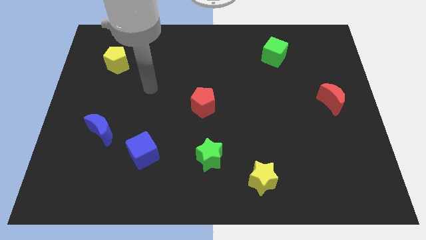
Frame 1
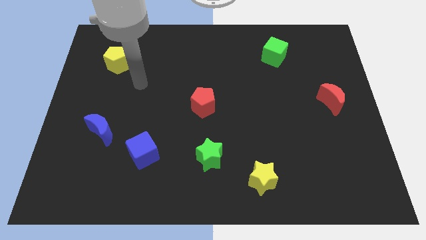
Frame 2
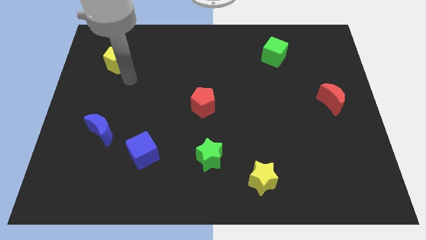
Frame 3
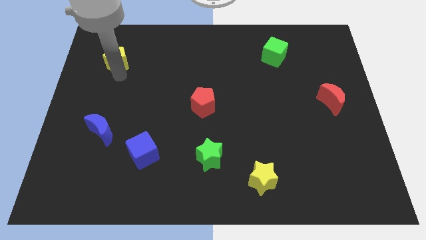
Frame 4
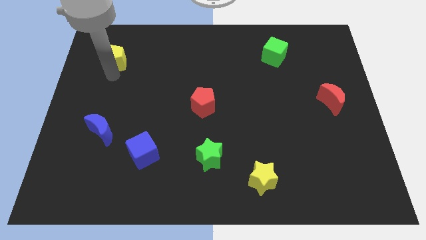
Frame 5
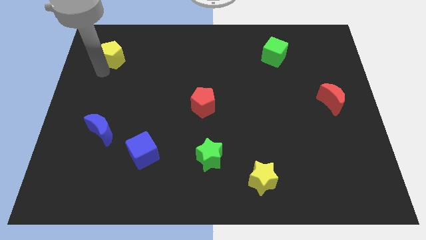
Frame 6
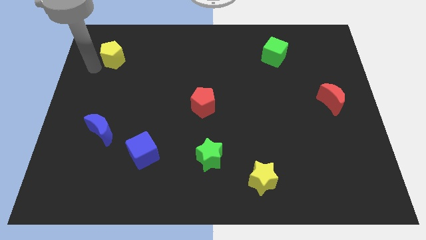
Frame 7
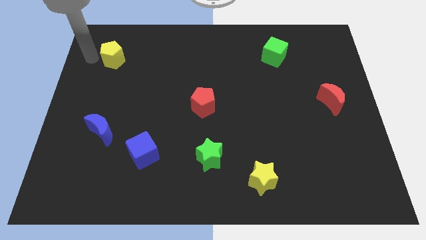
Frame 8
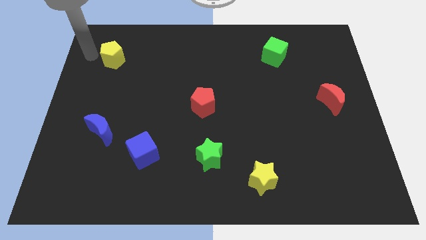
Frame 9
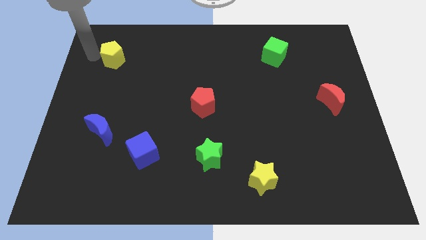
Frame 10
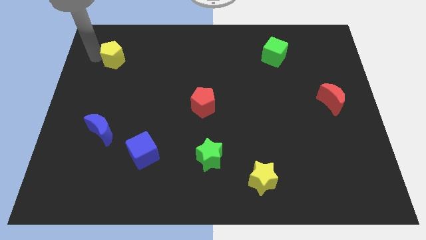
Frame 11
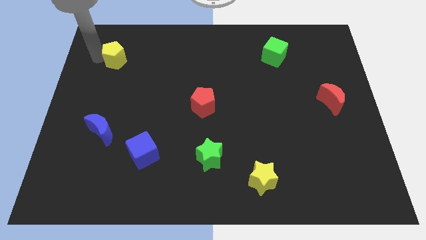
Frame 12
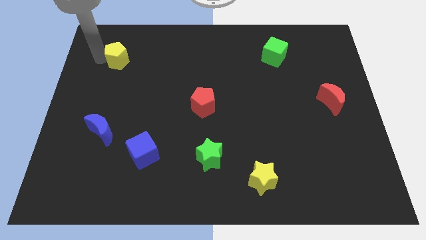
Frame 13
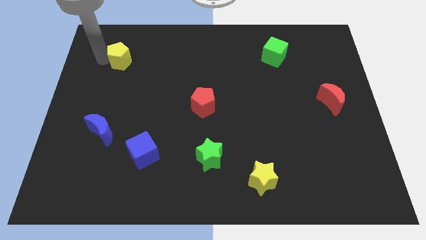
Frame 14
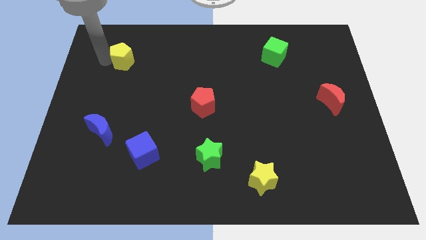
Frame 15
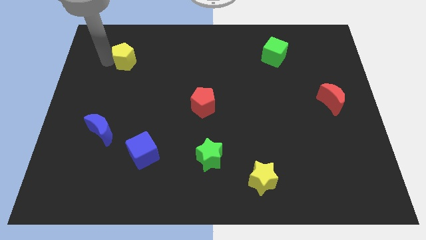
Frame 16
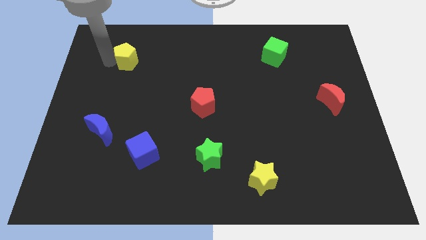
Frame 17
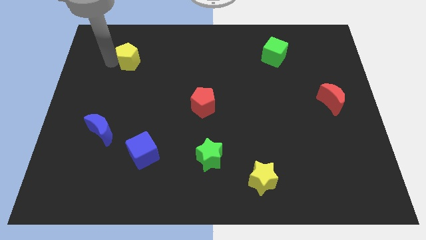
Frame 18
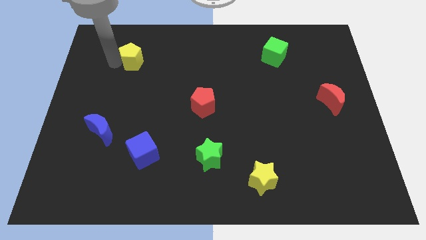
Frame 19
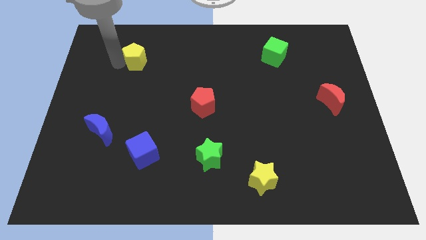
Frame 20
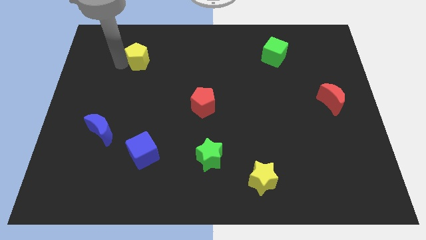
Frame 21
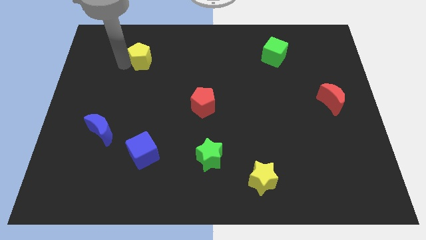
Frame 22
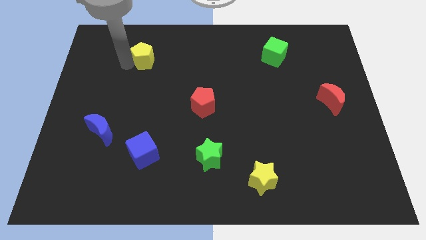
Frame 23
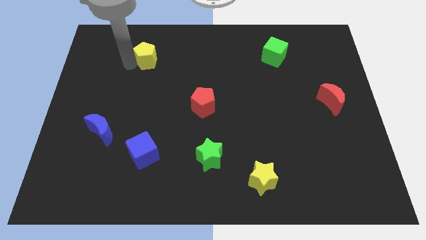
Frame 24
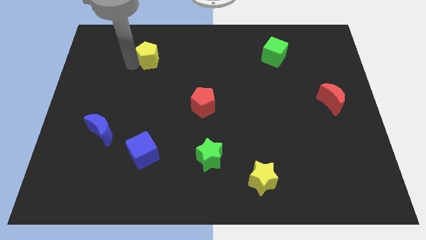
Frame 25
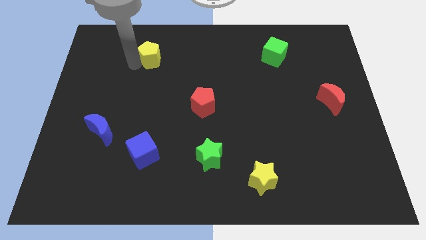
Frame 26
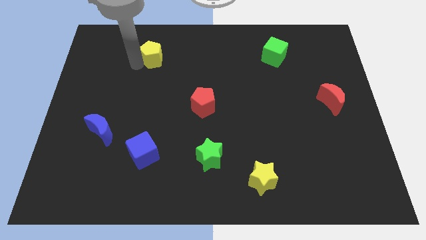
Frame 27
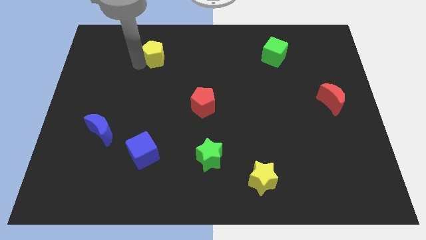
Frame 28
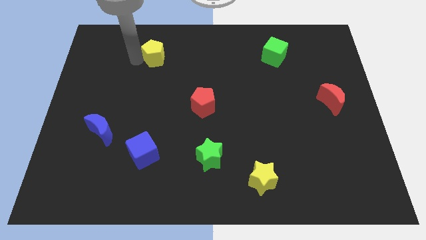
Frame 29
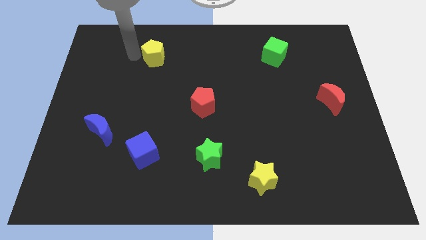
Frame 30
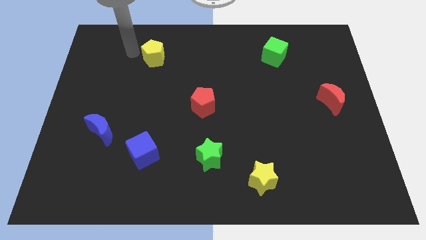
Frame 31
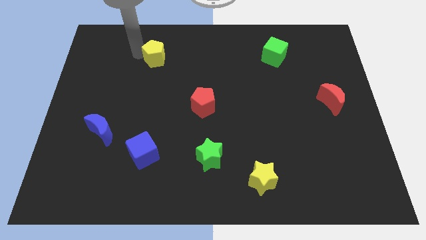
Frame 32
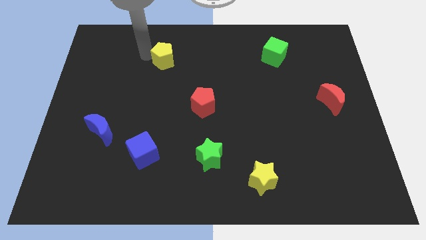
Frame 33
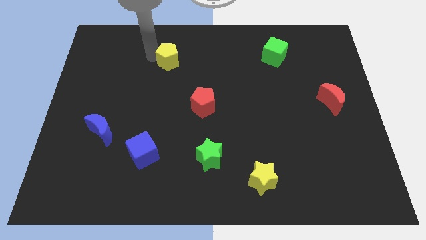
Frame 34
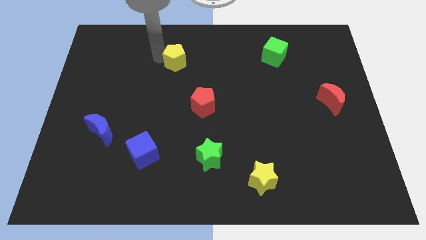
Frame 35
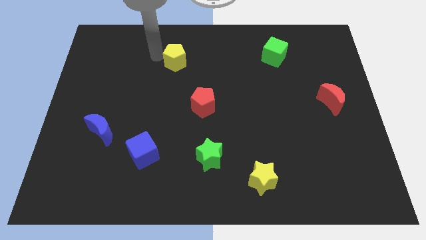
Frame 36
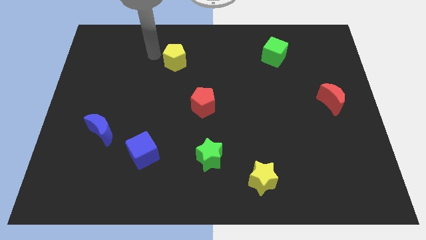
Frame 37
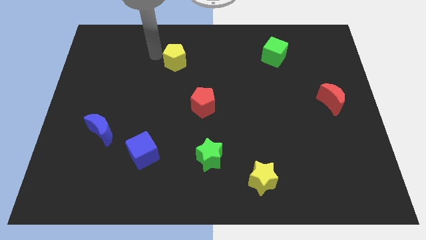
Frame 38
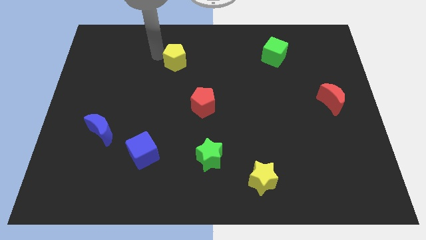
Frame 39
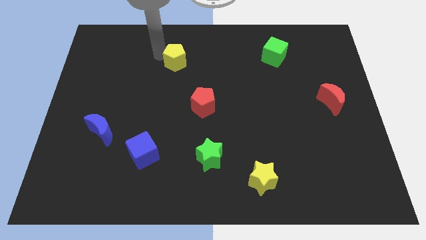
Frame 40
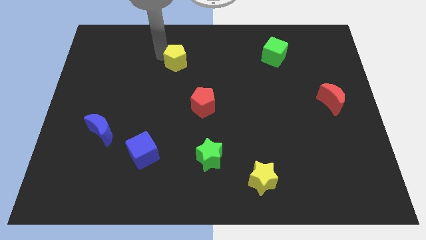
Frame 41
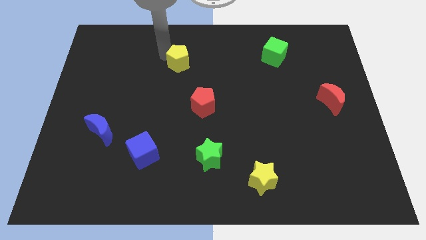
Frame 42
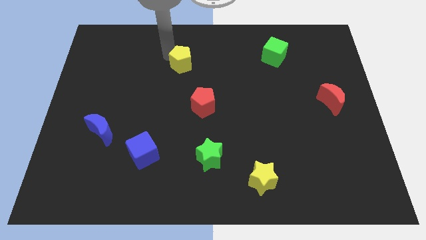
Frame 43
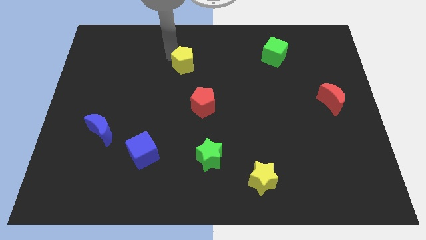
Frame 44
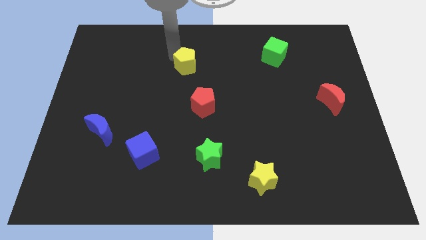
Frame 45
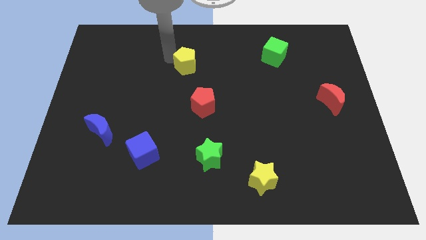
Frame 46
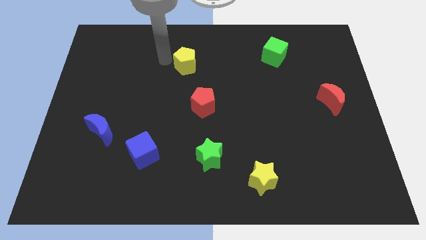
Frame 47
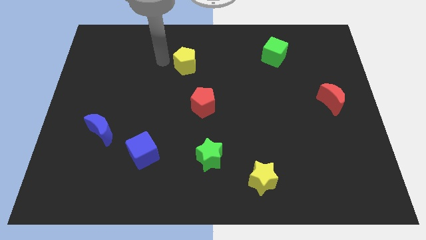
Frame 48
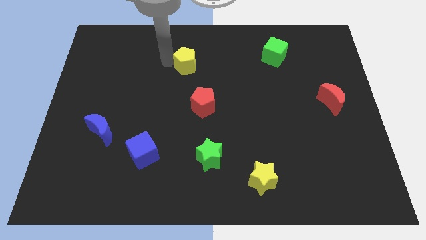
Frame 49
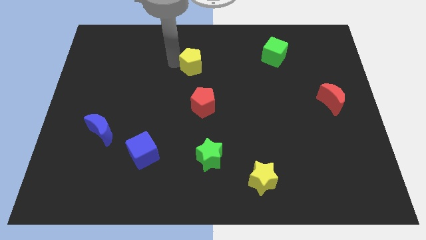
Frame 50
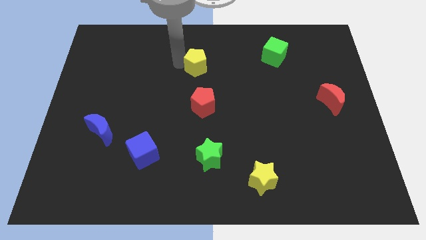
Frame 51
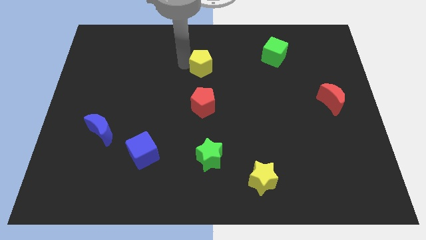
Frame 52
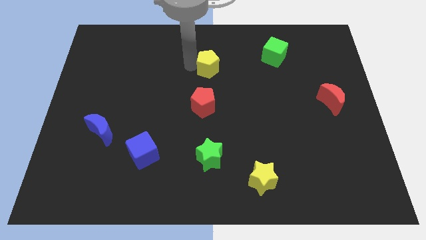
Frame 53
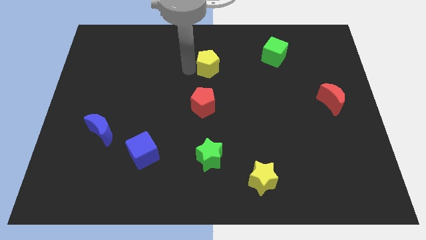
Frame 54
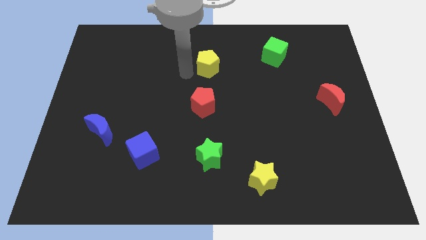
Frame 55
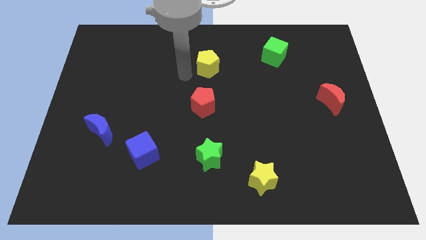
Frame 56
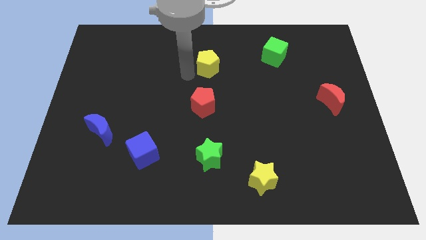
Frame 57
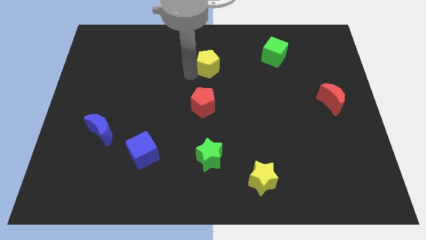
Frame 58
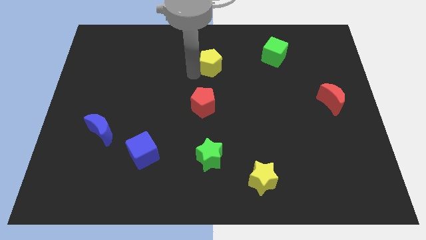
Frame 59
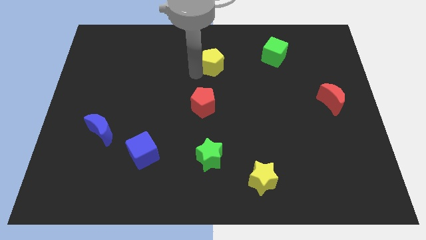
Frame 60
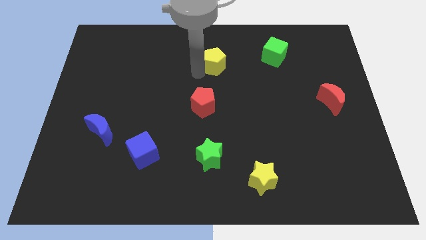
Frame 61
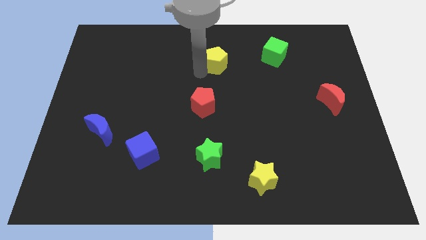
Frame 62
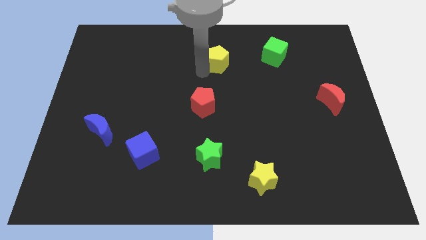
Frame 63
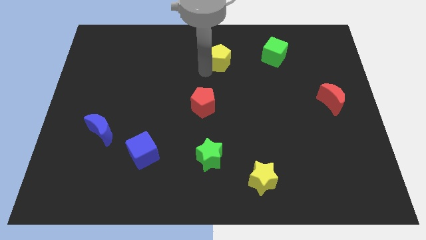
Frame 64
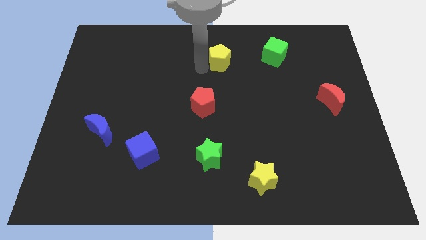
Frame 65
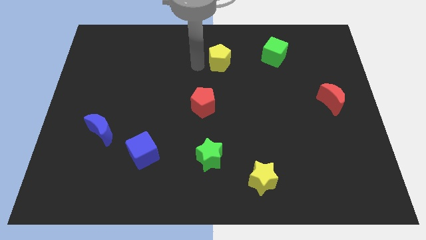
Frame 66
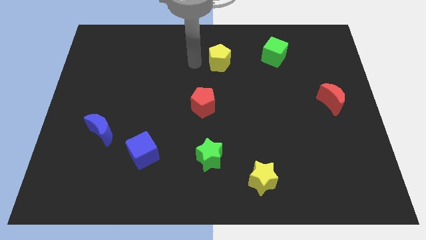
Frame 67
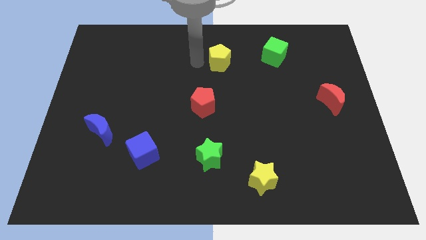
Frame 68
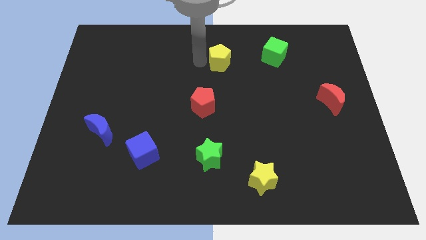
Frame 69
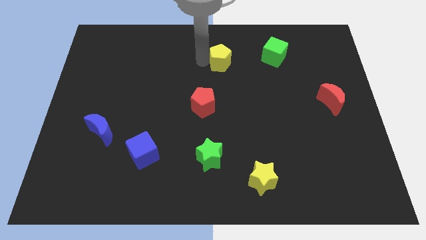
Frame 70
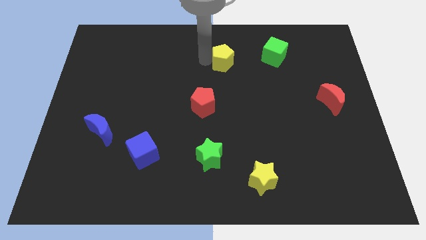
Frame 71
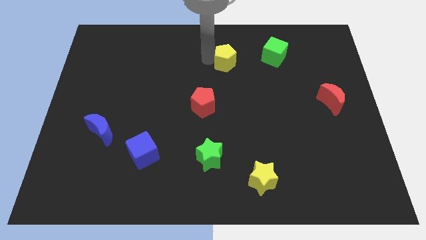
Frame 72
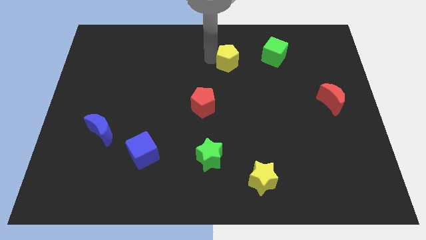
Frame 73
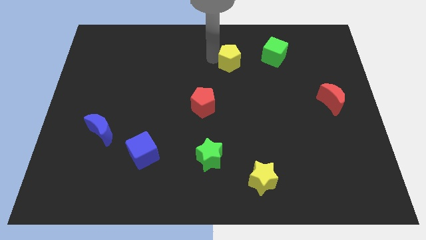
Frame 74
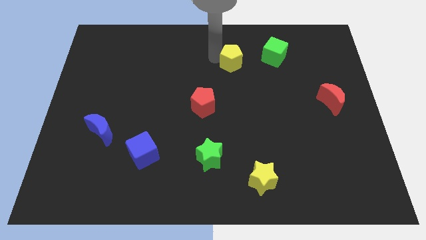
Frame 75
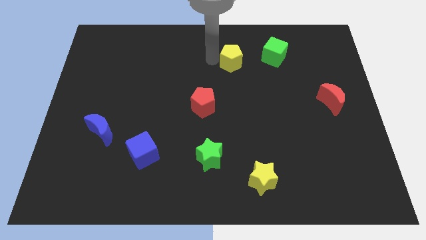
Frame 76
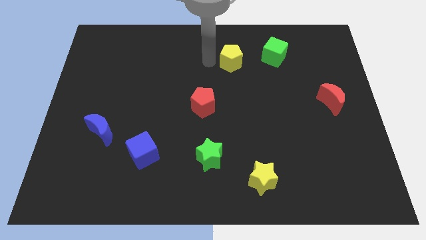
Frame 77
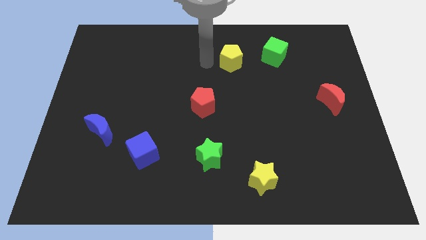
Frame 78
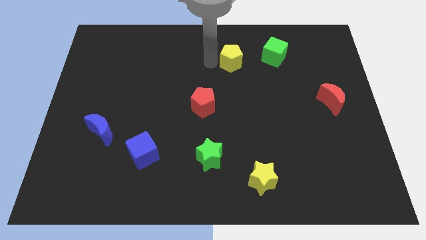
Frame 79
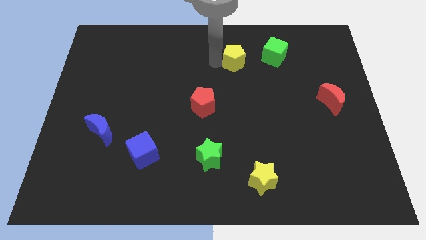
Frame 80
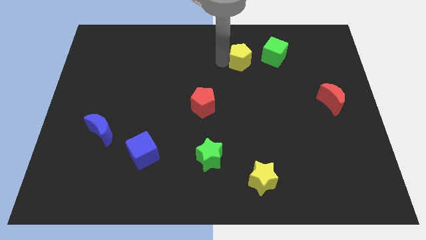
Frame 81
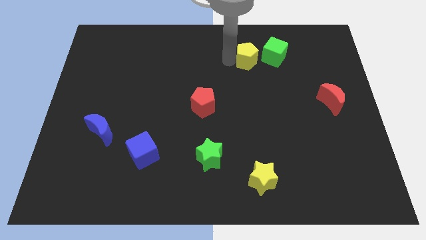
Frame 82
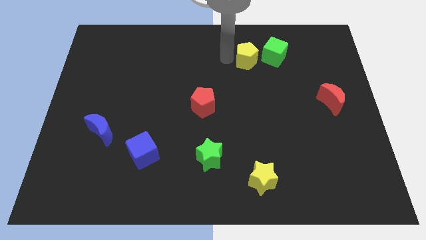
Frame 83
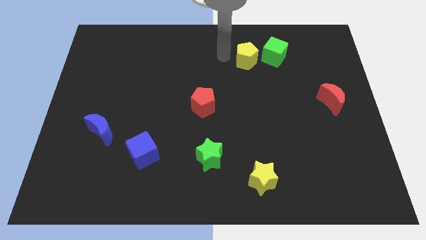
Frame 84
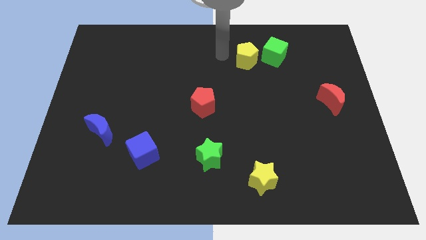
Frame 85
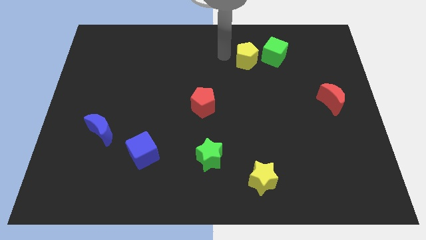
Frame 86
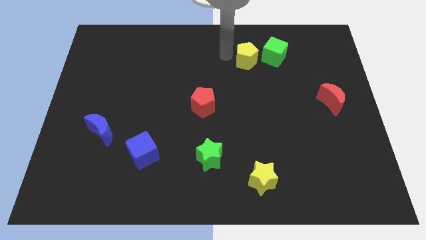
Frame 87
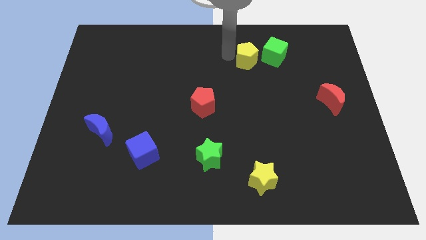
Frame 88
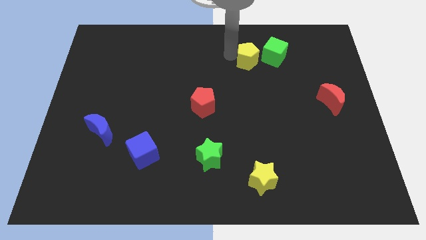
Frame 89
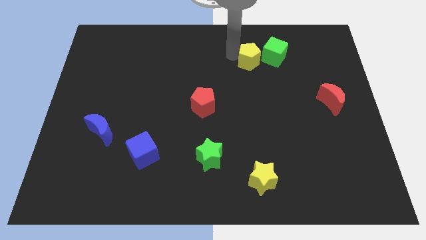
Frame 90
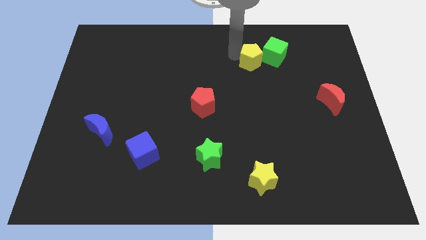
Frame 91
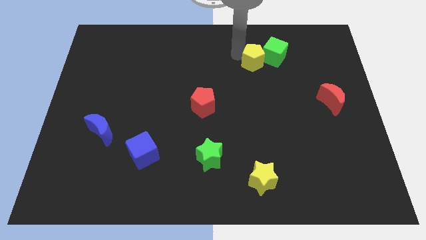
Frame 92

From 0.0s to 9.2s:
push the yellow pentagon to the green cube
